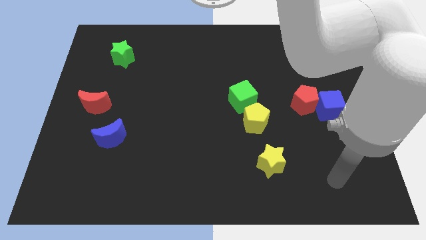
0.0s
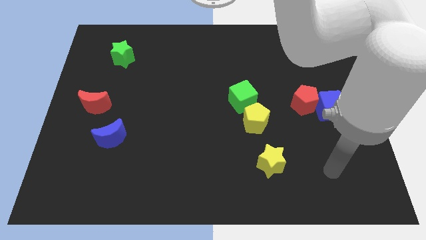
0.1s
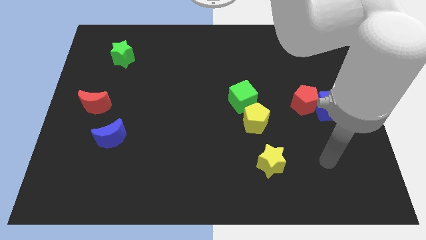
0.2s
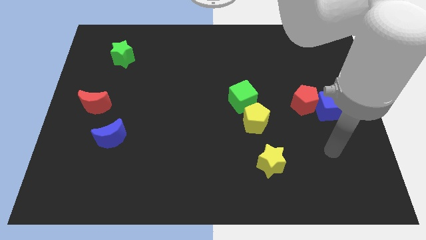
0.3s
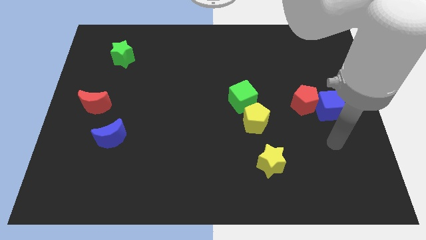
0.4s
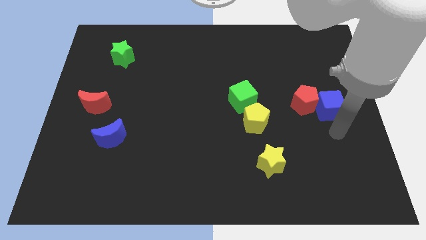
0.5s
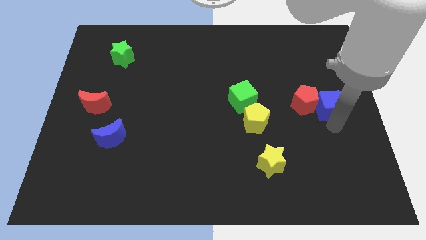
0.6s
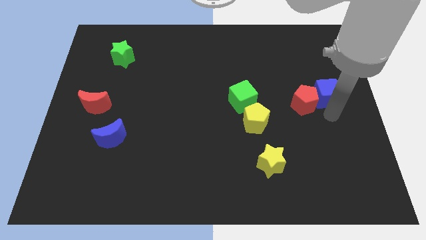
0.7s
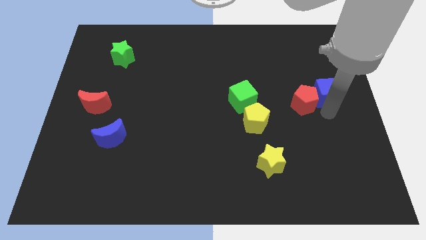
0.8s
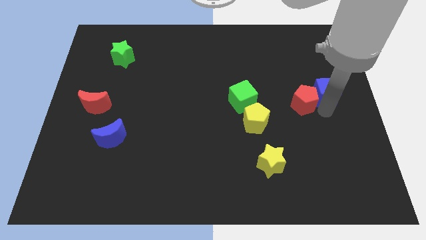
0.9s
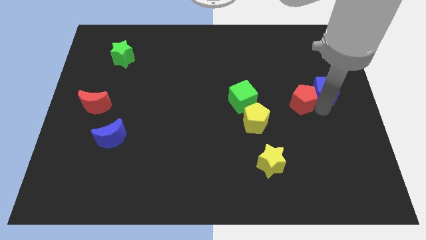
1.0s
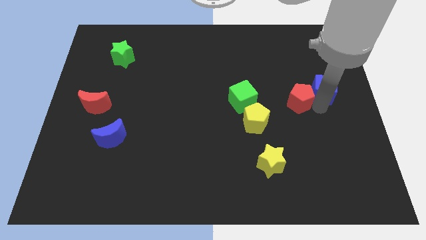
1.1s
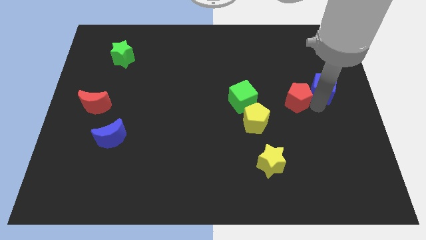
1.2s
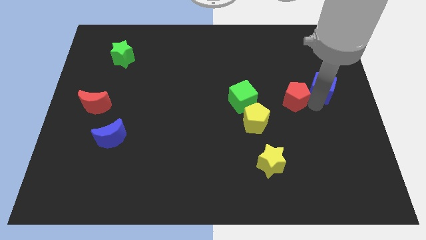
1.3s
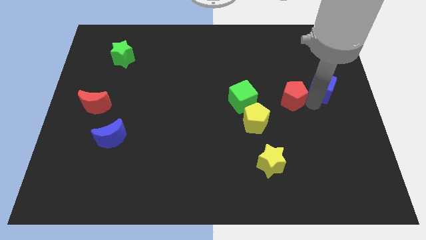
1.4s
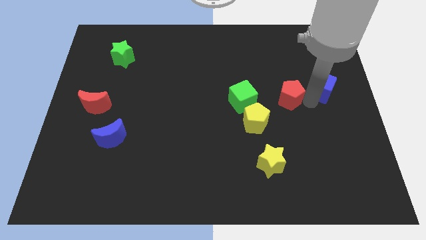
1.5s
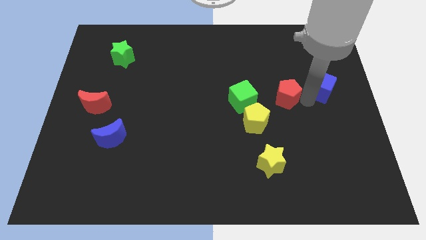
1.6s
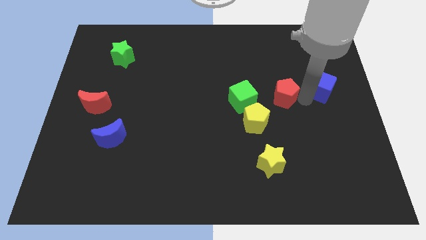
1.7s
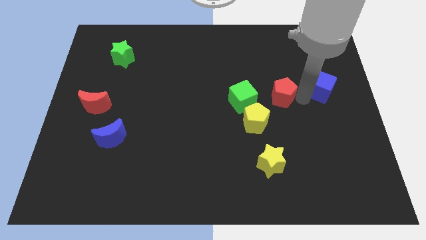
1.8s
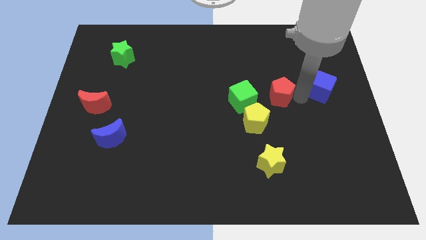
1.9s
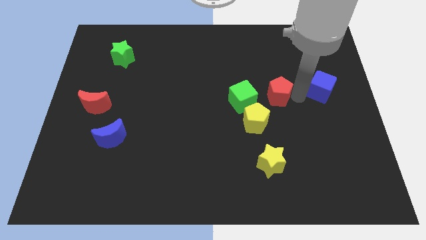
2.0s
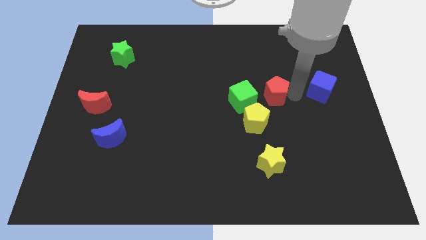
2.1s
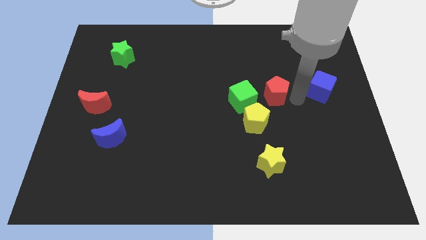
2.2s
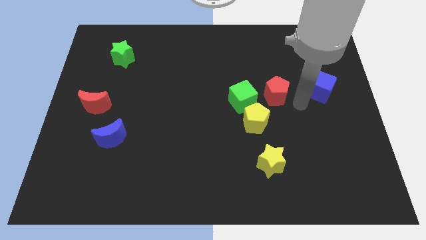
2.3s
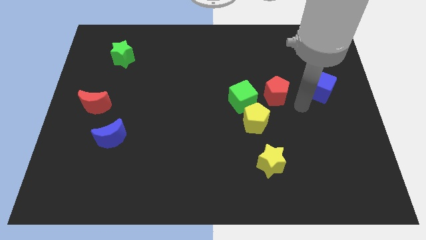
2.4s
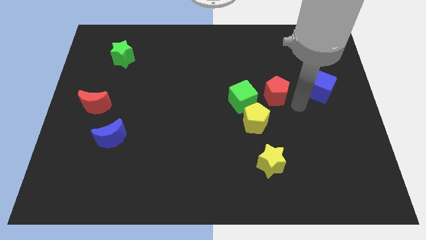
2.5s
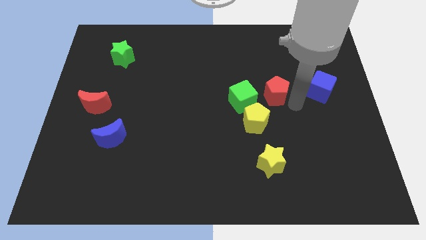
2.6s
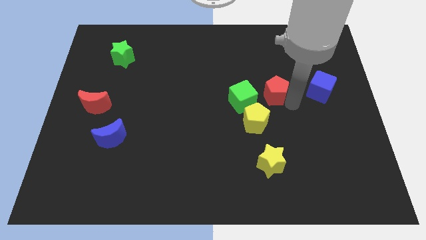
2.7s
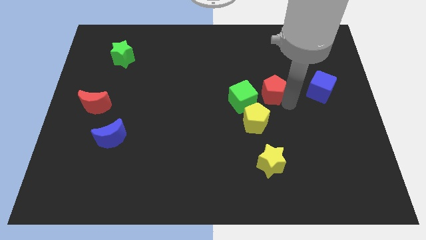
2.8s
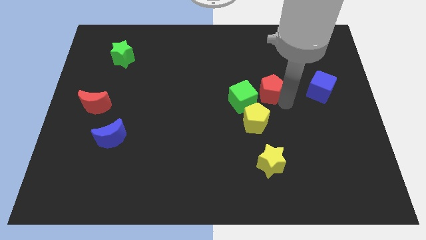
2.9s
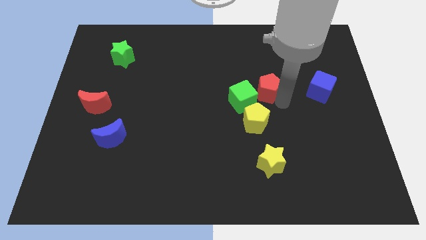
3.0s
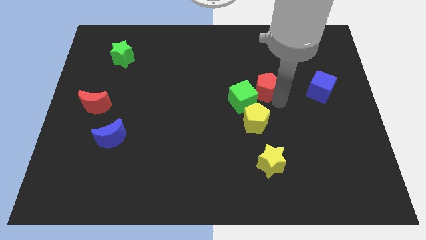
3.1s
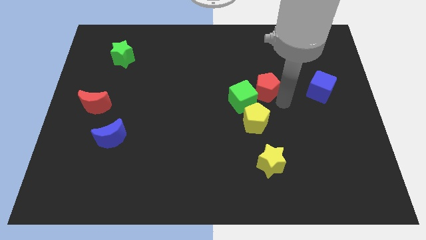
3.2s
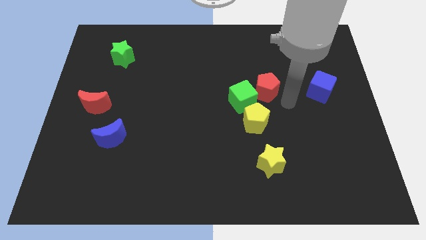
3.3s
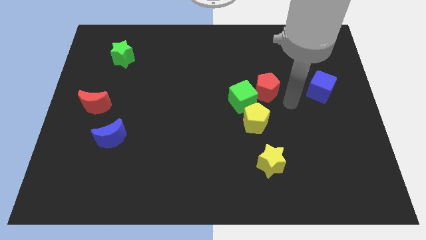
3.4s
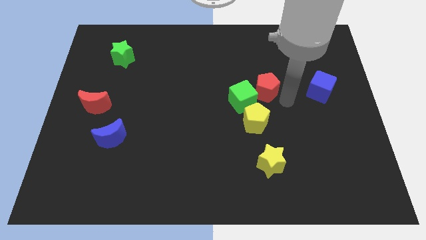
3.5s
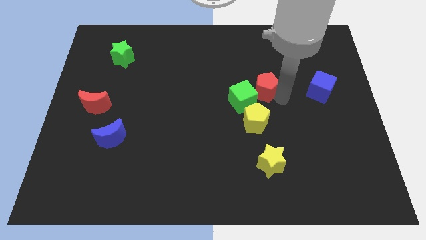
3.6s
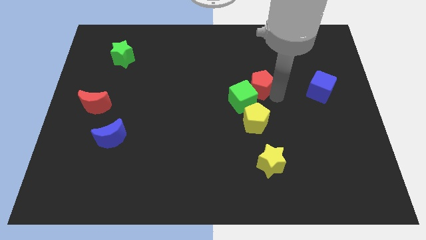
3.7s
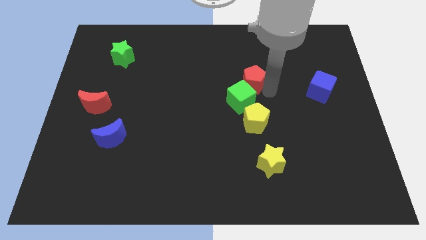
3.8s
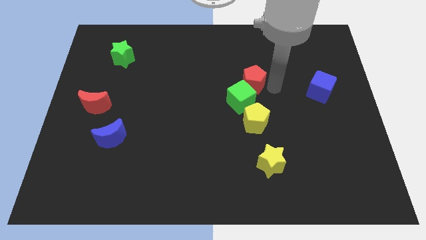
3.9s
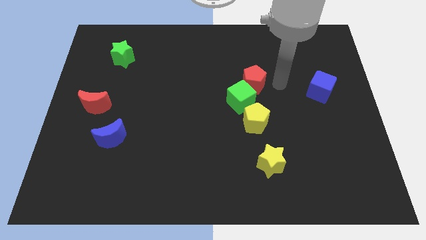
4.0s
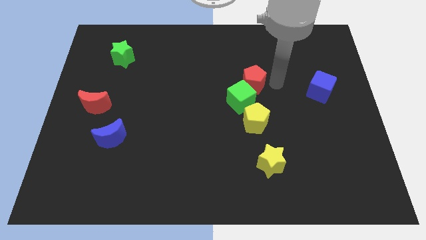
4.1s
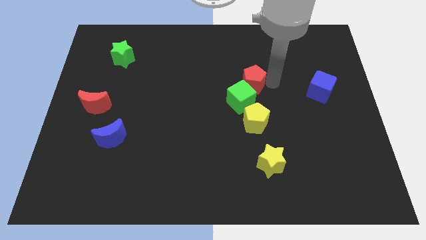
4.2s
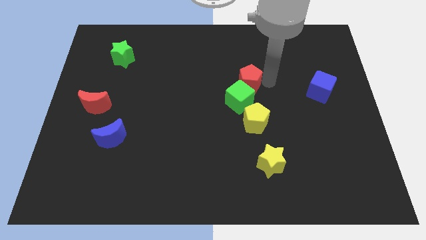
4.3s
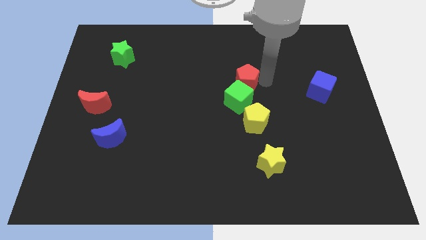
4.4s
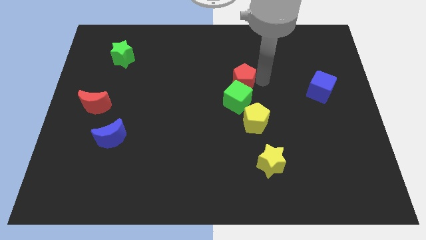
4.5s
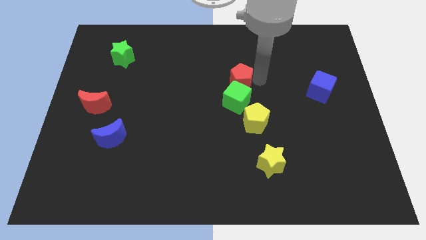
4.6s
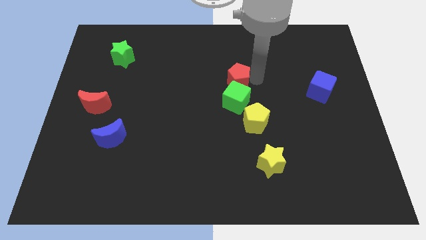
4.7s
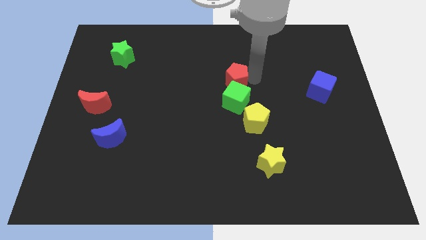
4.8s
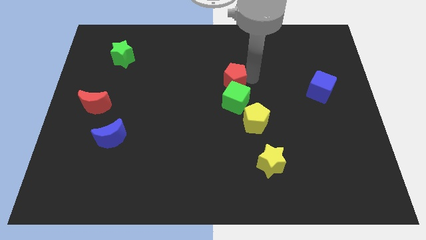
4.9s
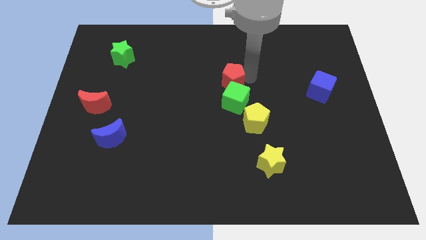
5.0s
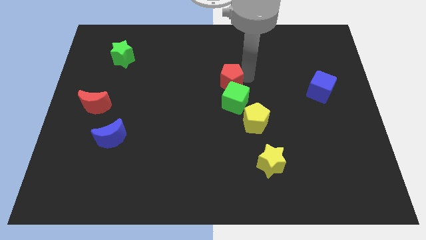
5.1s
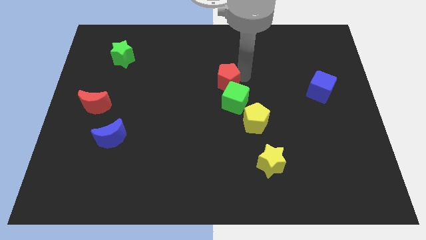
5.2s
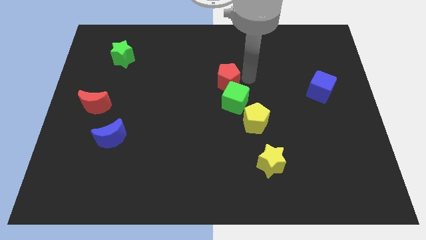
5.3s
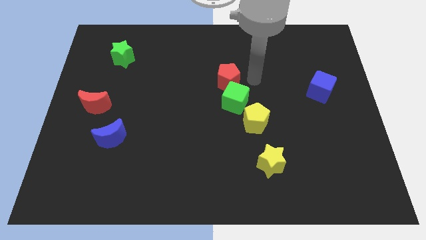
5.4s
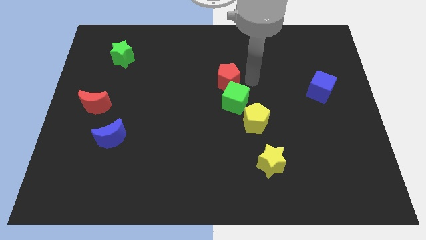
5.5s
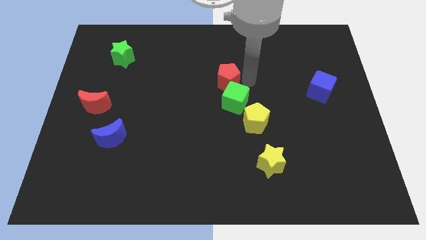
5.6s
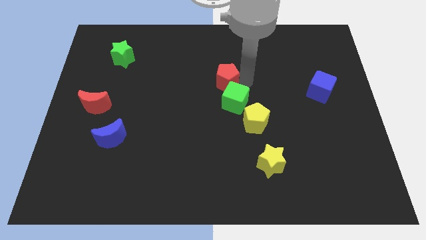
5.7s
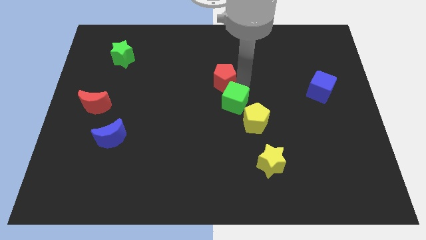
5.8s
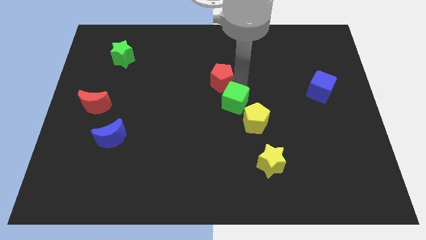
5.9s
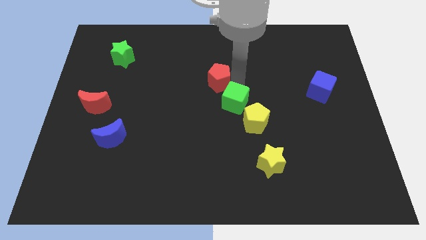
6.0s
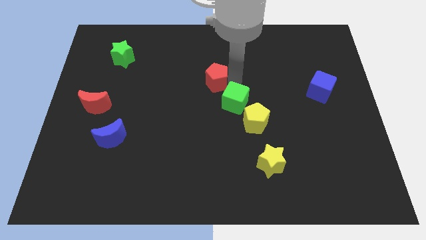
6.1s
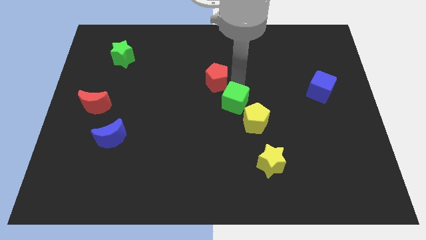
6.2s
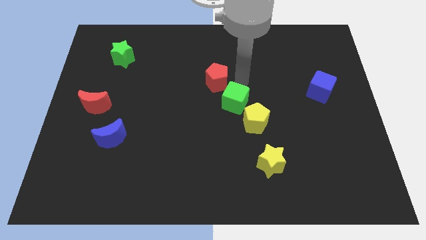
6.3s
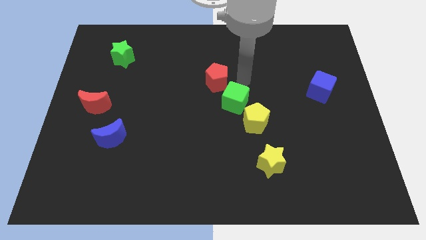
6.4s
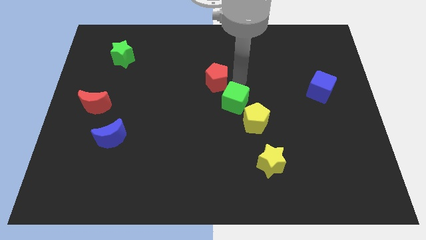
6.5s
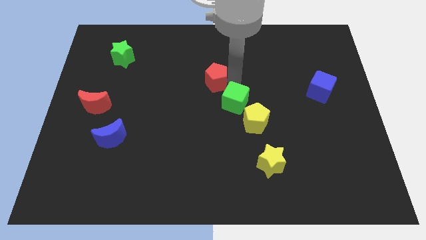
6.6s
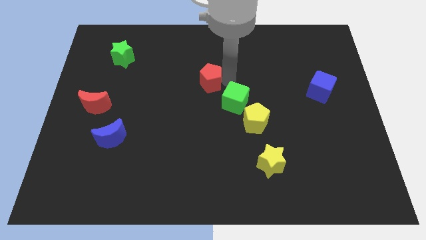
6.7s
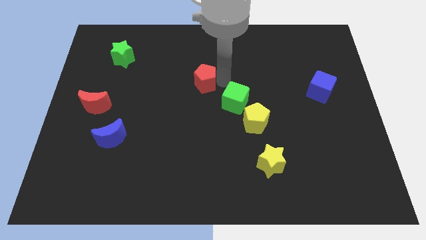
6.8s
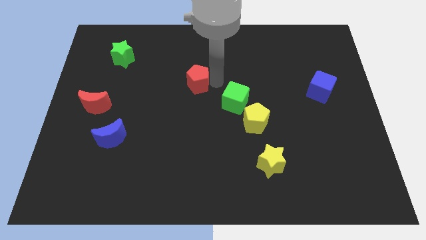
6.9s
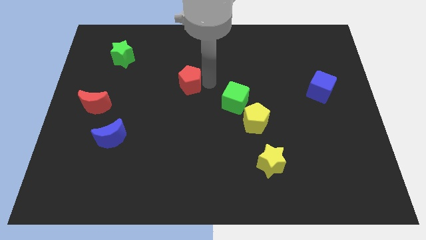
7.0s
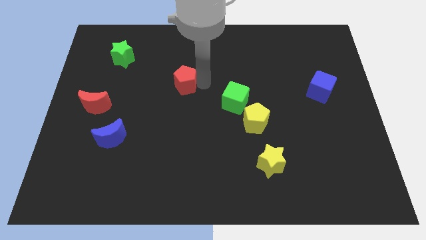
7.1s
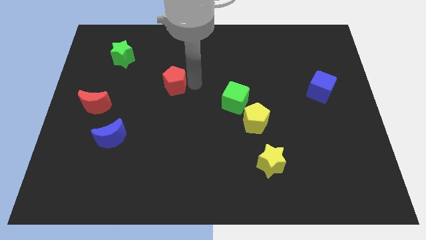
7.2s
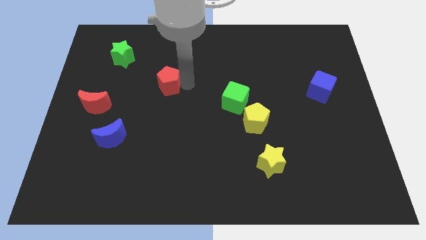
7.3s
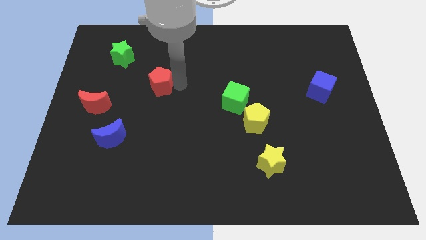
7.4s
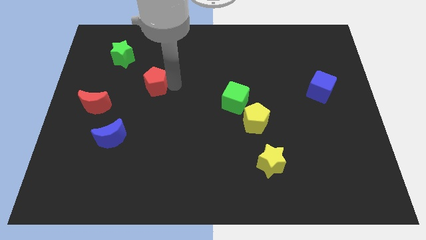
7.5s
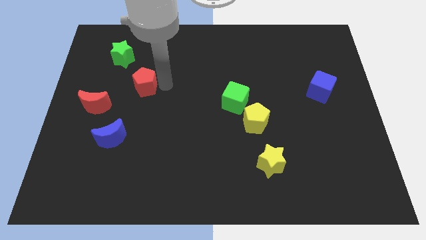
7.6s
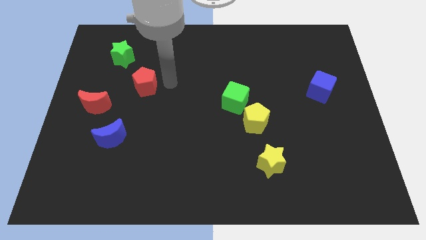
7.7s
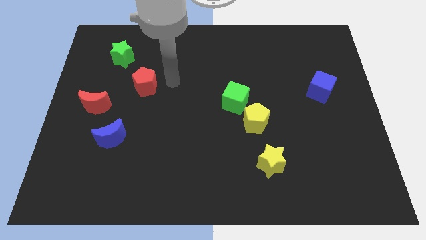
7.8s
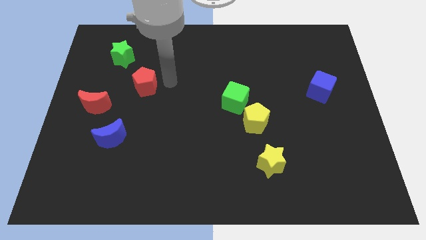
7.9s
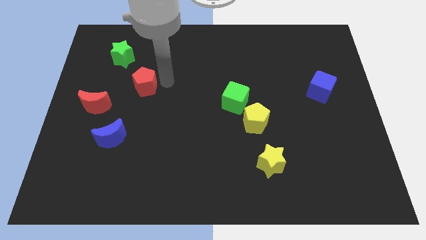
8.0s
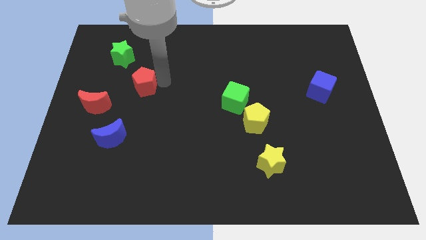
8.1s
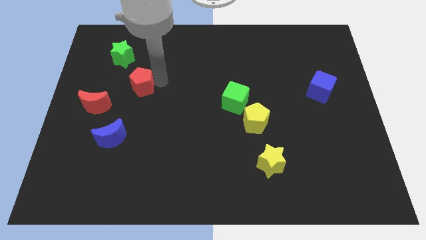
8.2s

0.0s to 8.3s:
put the red pentagon diagonally up and to the right of the red moon
